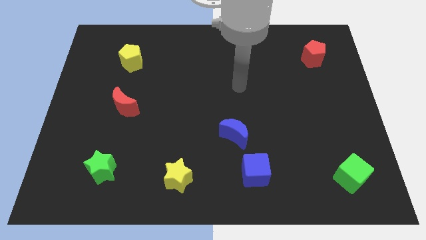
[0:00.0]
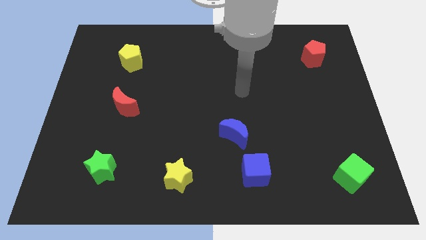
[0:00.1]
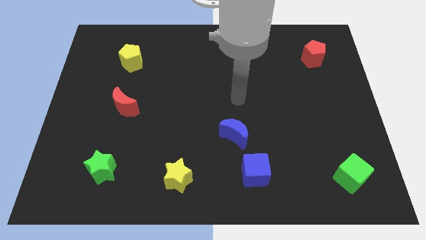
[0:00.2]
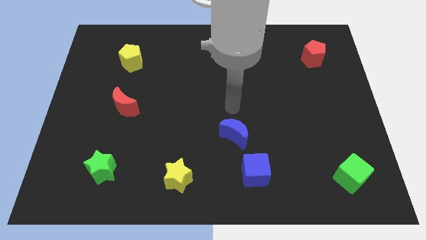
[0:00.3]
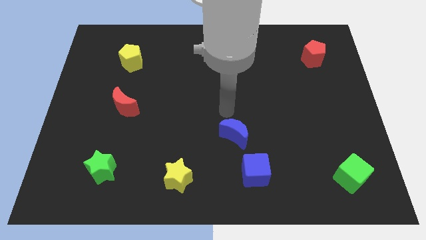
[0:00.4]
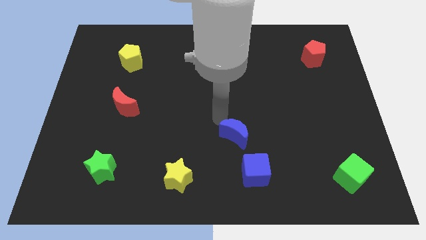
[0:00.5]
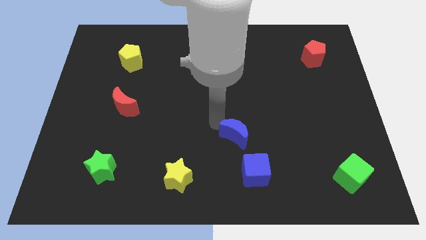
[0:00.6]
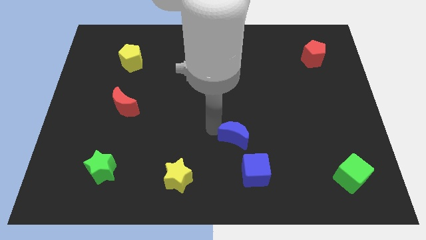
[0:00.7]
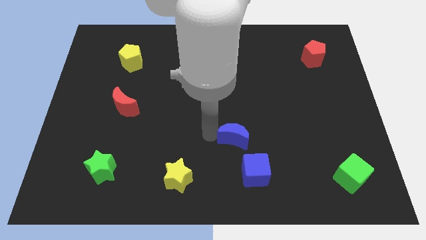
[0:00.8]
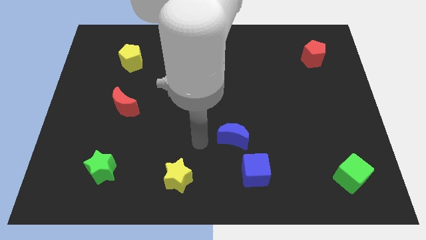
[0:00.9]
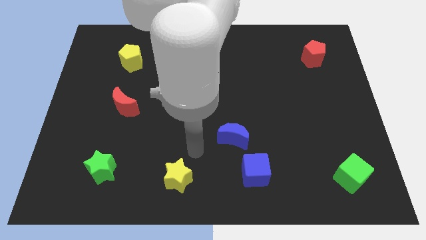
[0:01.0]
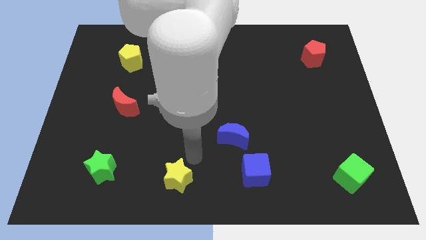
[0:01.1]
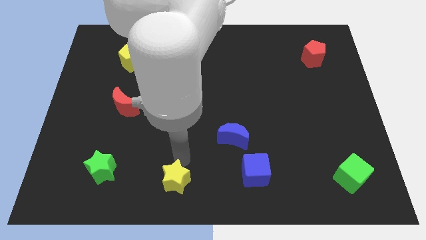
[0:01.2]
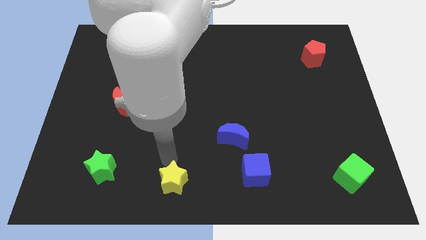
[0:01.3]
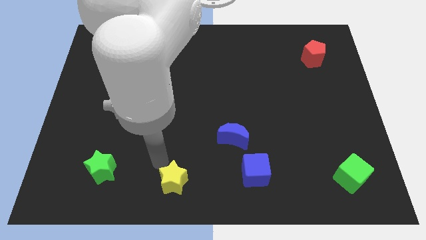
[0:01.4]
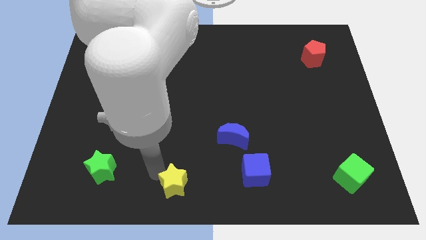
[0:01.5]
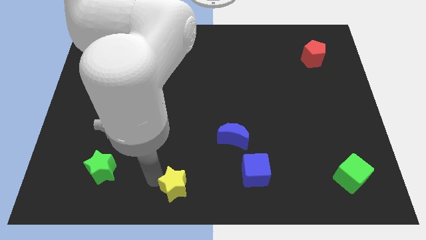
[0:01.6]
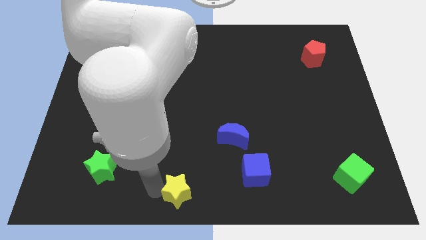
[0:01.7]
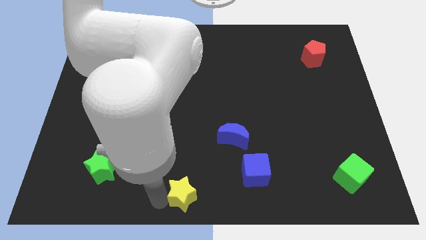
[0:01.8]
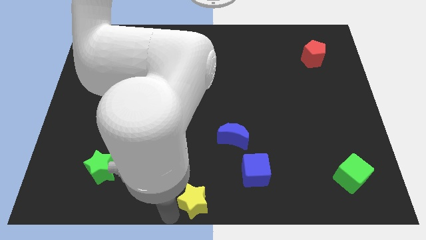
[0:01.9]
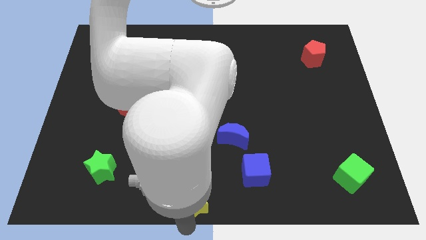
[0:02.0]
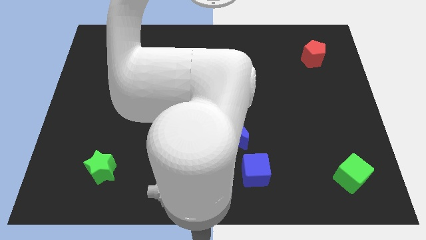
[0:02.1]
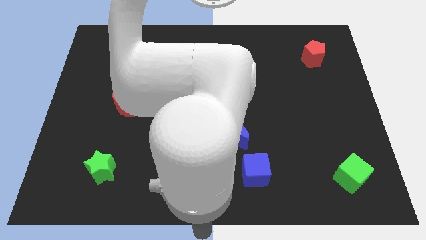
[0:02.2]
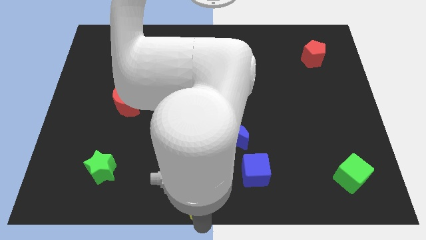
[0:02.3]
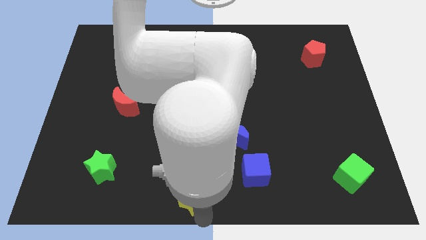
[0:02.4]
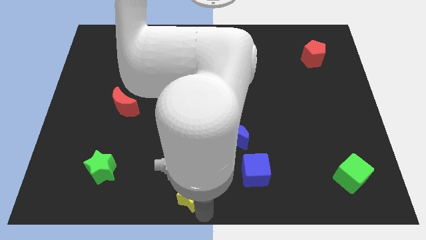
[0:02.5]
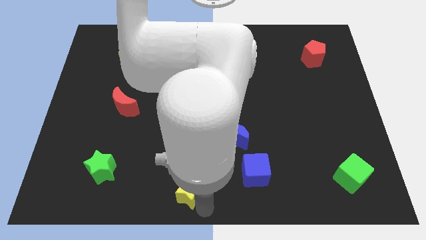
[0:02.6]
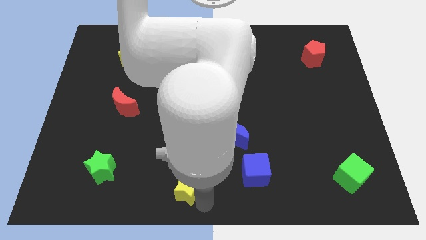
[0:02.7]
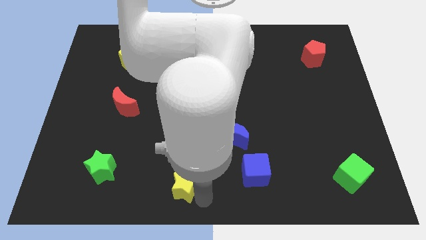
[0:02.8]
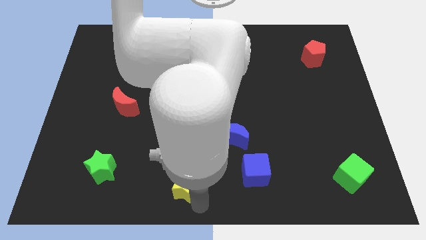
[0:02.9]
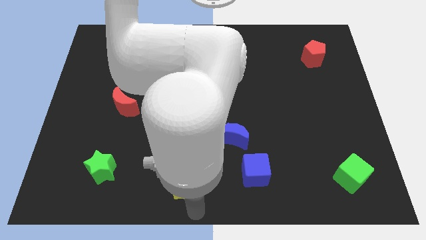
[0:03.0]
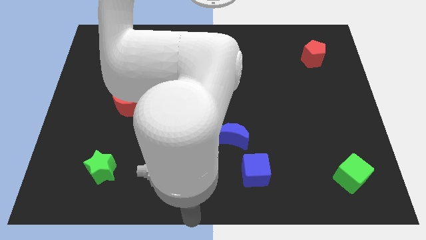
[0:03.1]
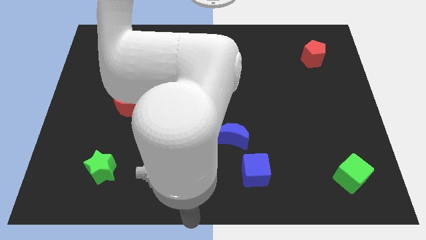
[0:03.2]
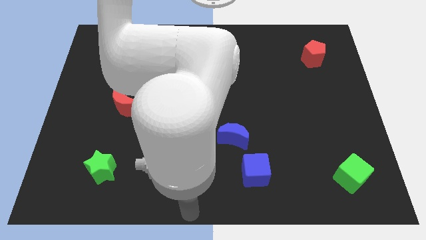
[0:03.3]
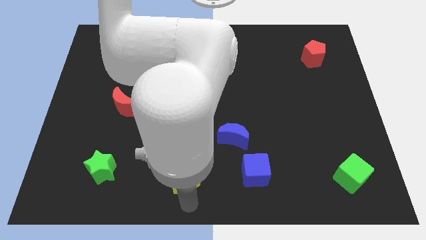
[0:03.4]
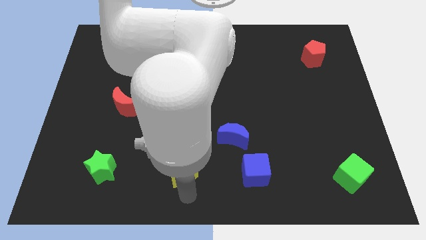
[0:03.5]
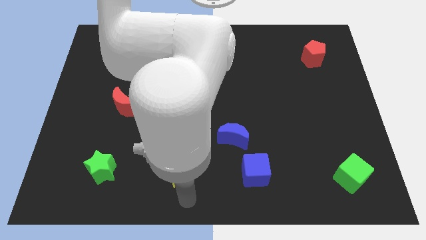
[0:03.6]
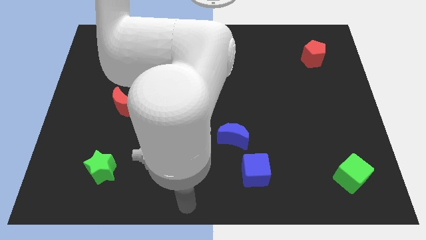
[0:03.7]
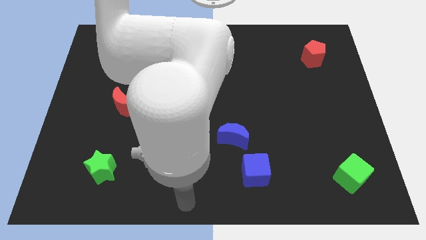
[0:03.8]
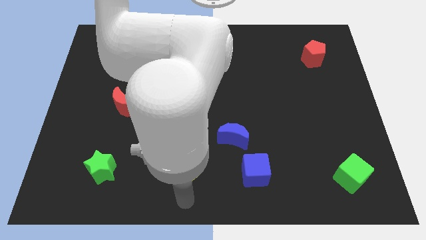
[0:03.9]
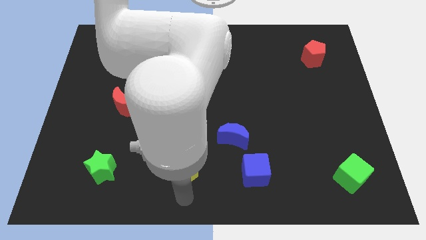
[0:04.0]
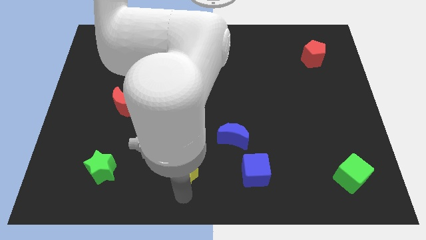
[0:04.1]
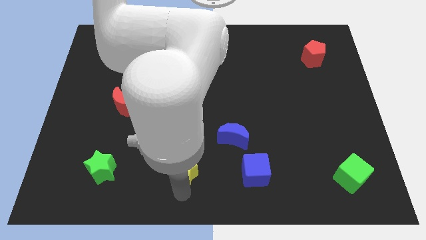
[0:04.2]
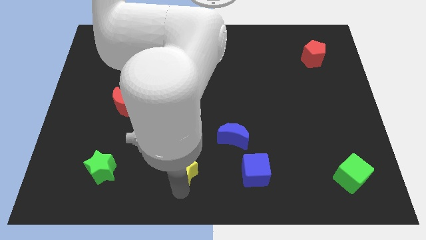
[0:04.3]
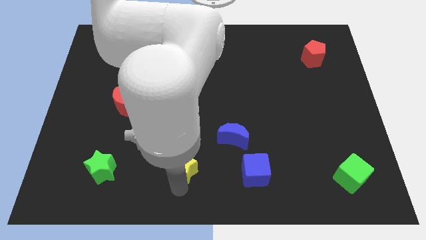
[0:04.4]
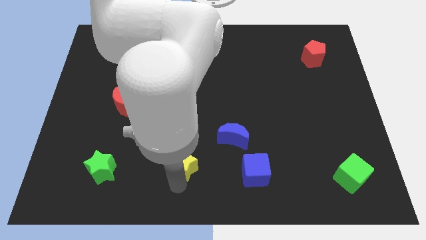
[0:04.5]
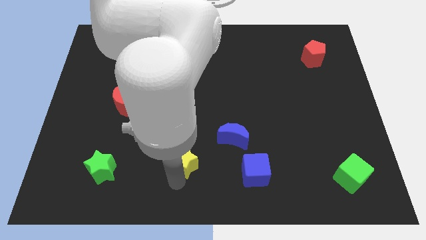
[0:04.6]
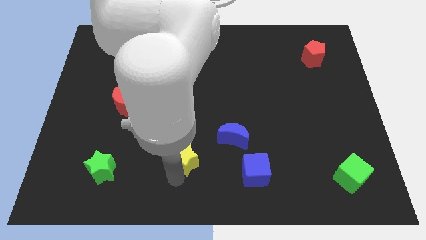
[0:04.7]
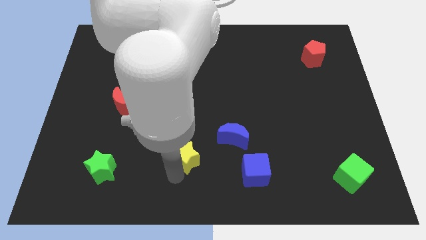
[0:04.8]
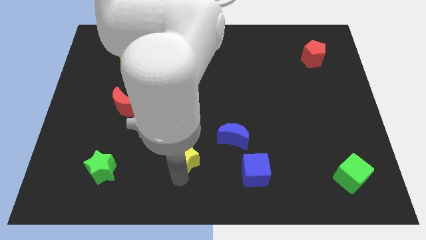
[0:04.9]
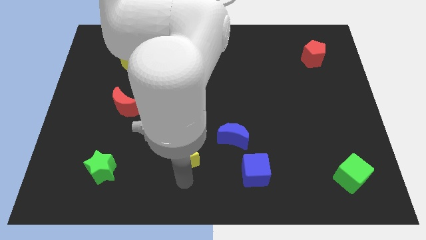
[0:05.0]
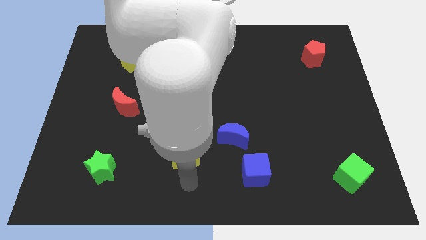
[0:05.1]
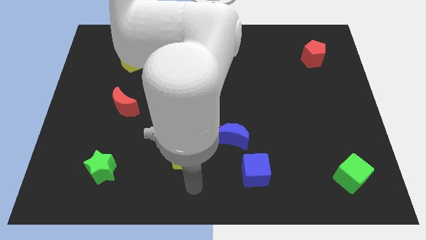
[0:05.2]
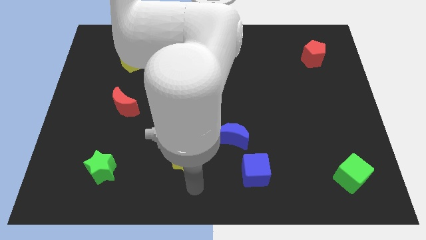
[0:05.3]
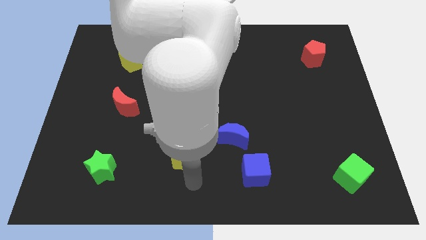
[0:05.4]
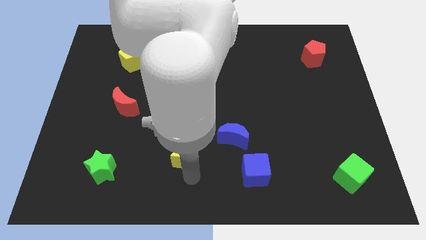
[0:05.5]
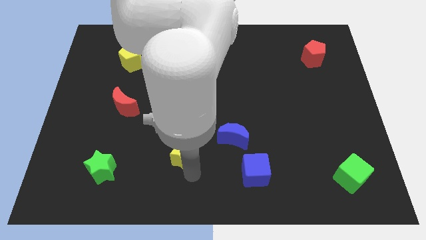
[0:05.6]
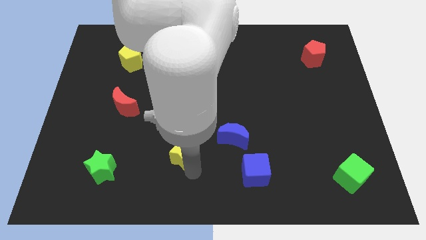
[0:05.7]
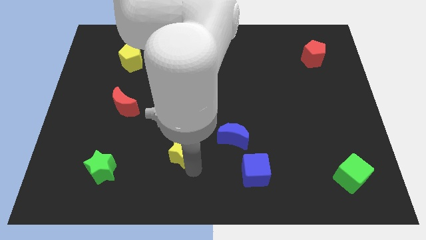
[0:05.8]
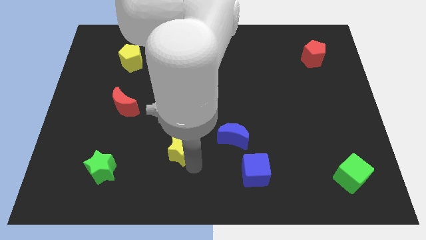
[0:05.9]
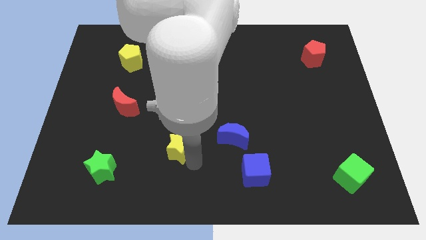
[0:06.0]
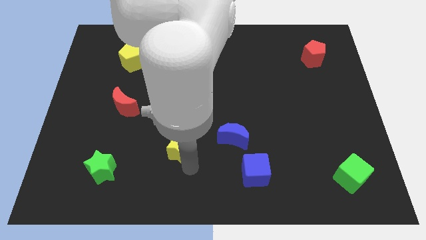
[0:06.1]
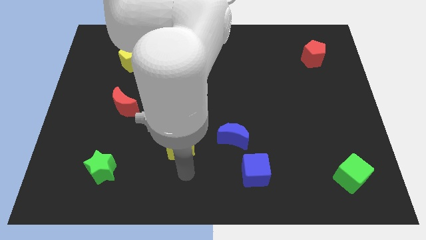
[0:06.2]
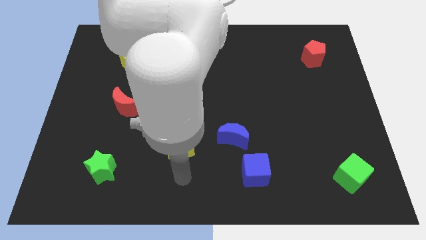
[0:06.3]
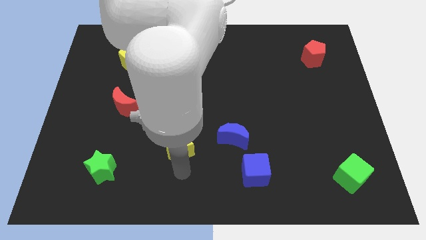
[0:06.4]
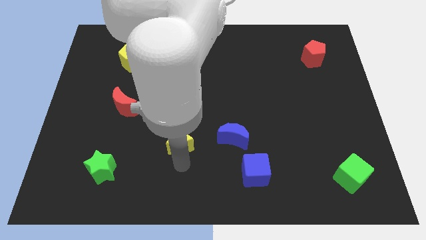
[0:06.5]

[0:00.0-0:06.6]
move the yellow star up slightly

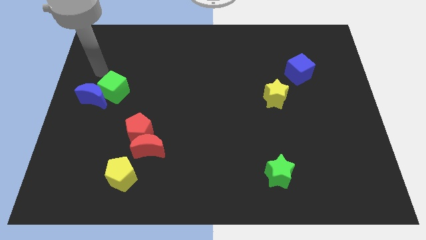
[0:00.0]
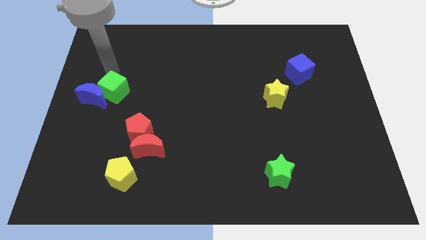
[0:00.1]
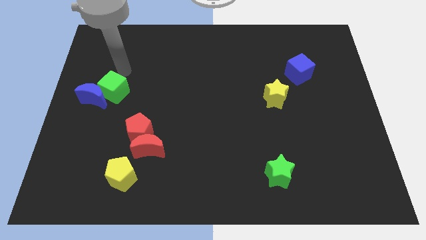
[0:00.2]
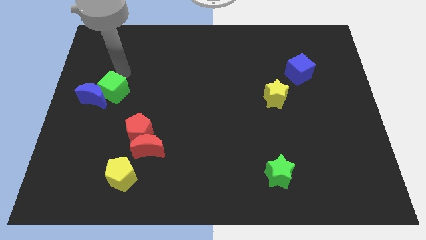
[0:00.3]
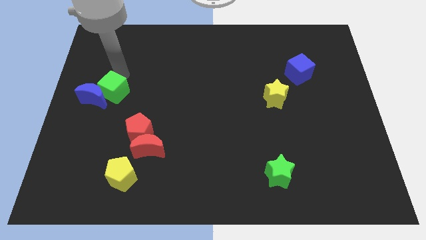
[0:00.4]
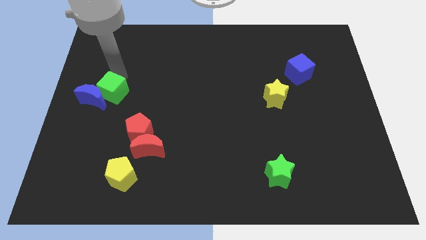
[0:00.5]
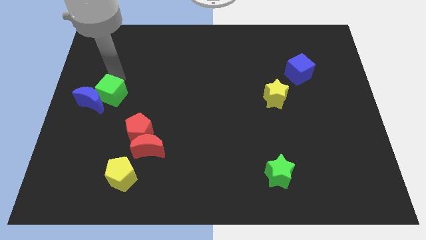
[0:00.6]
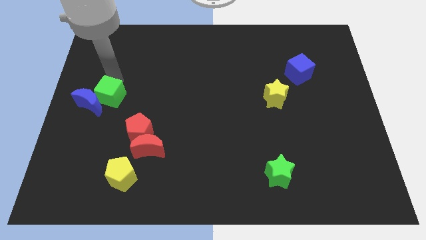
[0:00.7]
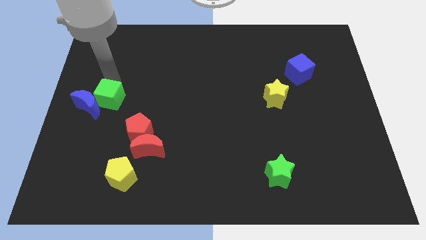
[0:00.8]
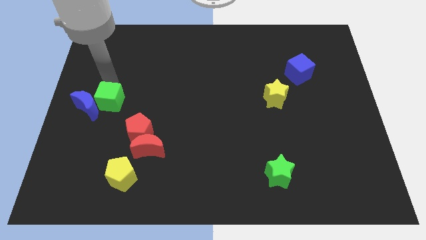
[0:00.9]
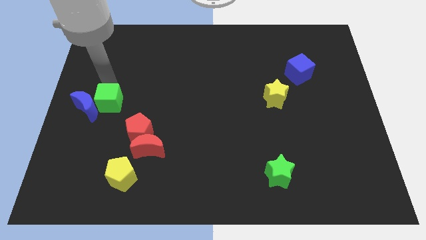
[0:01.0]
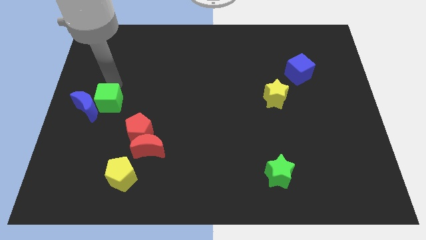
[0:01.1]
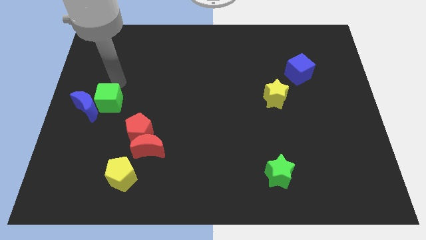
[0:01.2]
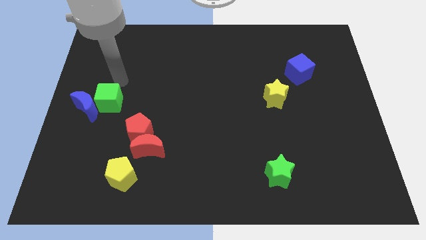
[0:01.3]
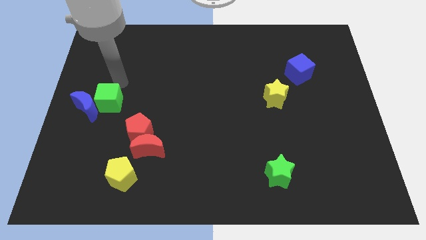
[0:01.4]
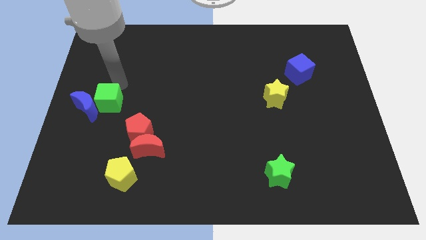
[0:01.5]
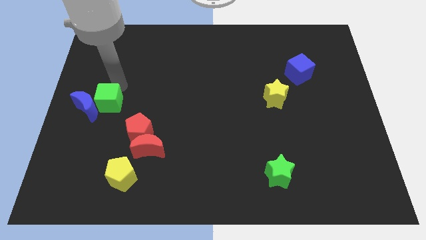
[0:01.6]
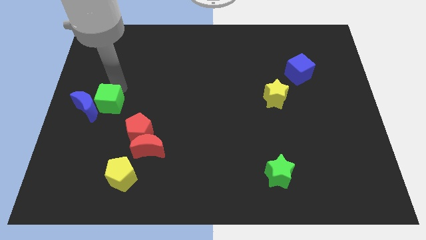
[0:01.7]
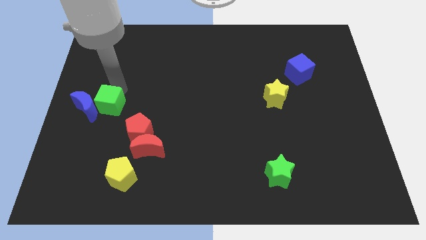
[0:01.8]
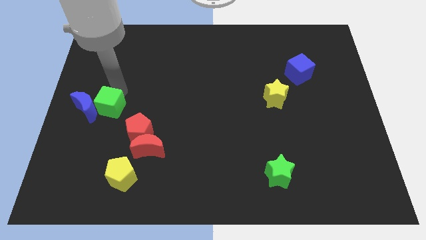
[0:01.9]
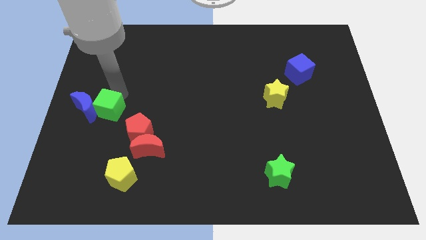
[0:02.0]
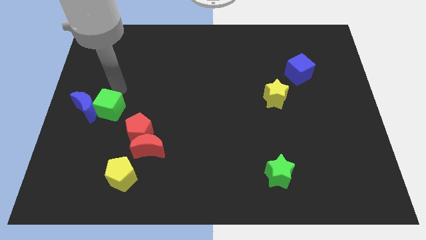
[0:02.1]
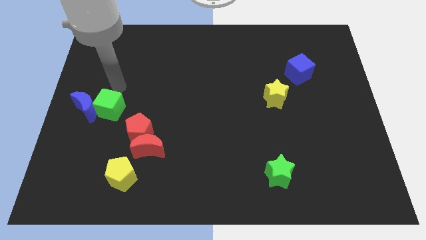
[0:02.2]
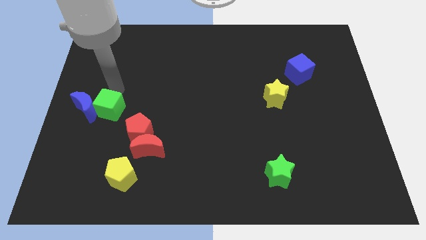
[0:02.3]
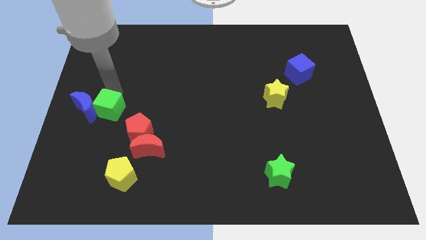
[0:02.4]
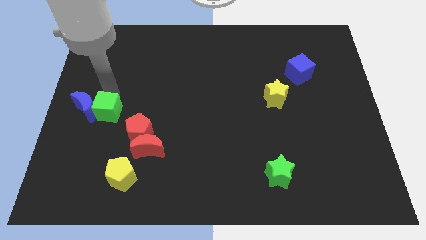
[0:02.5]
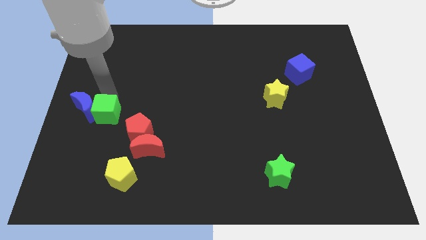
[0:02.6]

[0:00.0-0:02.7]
slide the green cube down a bit
